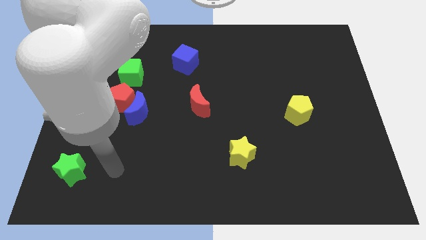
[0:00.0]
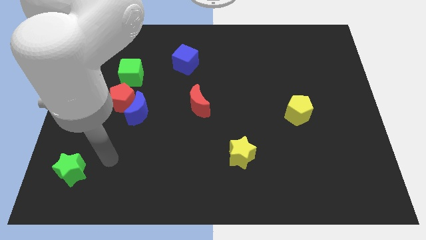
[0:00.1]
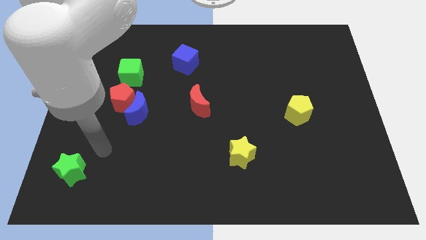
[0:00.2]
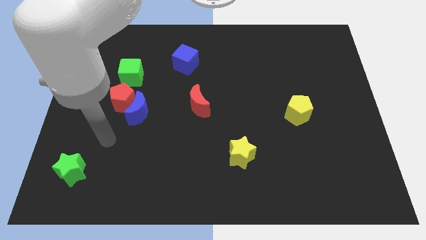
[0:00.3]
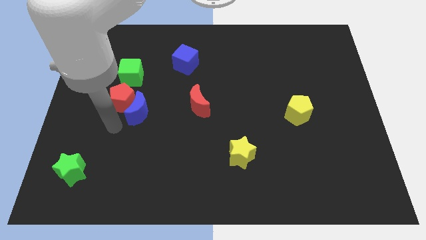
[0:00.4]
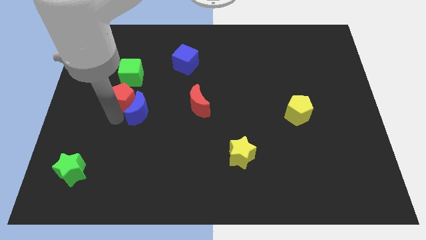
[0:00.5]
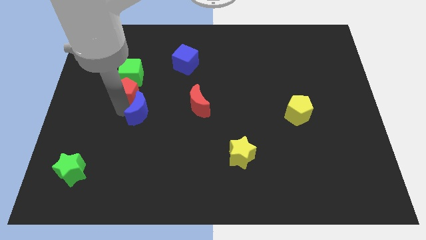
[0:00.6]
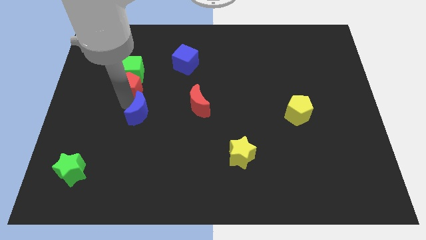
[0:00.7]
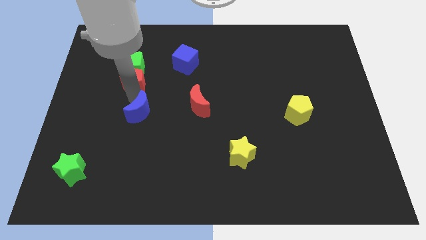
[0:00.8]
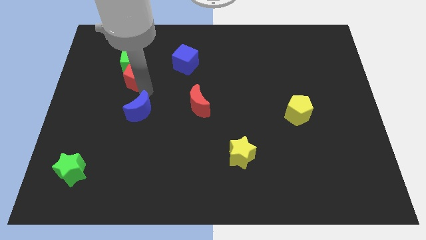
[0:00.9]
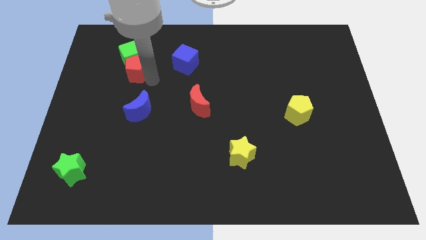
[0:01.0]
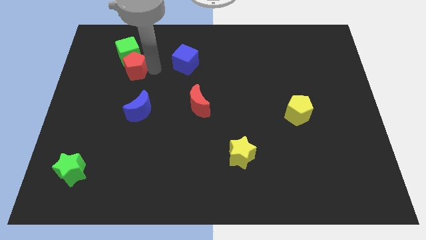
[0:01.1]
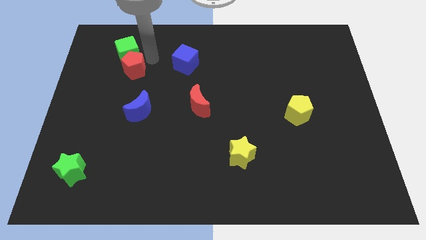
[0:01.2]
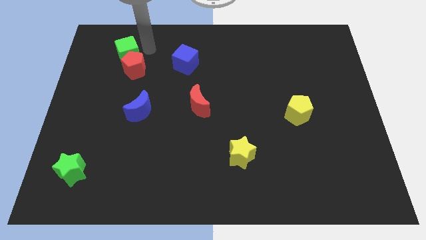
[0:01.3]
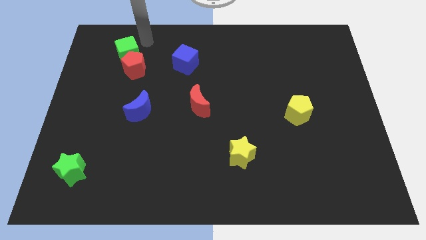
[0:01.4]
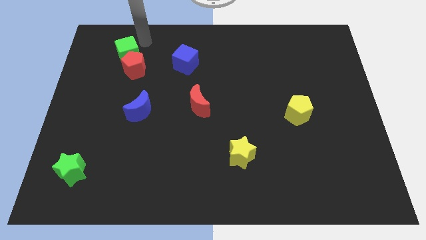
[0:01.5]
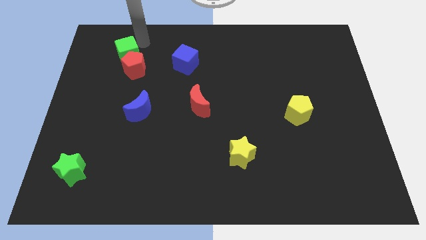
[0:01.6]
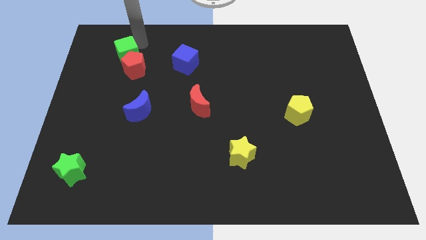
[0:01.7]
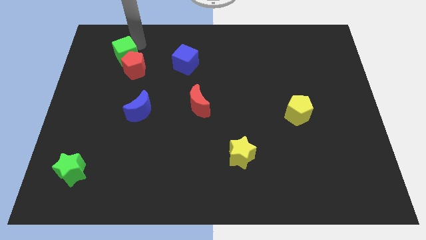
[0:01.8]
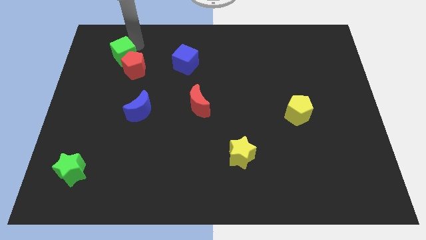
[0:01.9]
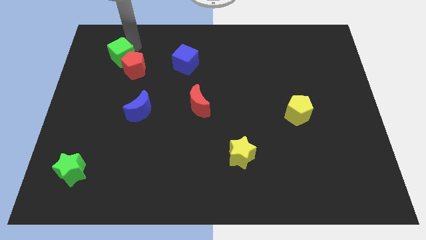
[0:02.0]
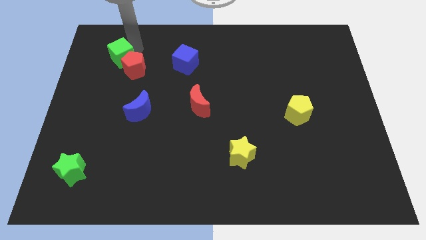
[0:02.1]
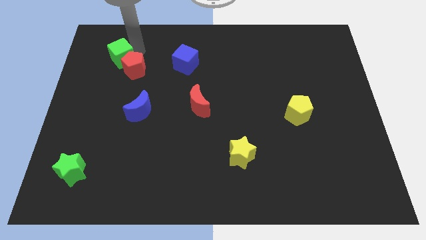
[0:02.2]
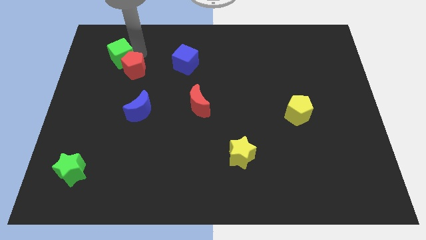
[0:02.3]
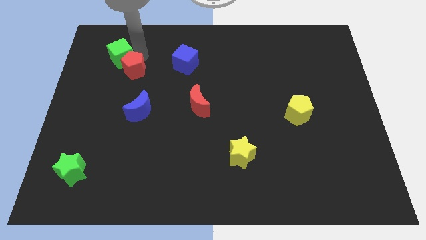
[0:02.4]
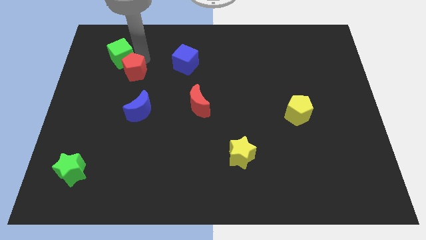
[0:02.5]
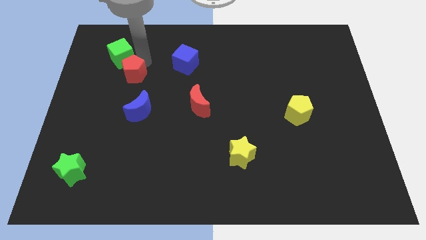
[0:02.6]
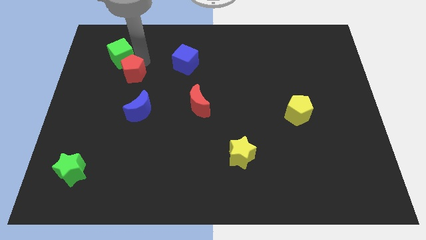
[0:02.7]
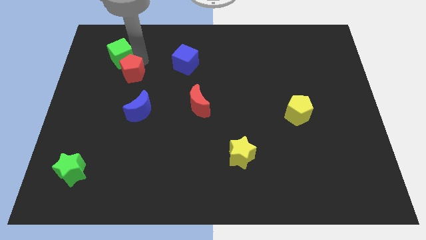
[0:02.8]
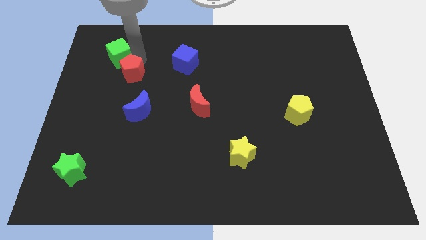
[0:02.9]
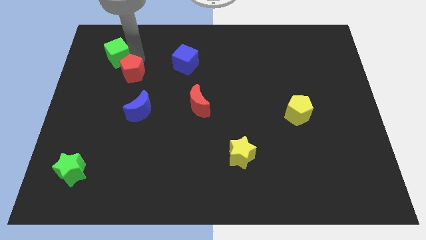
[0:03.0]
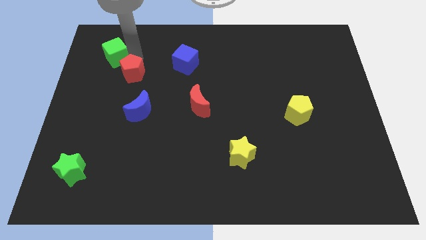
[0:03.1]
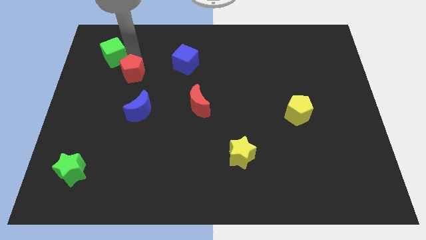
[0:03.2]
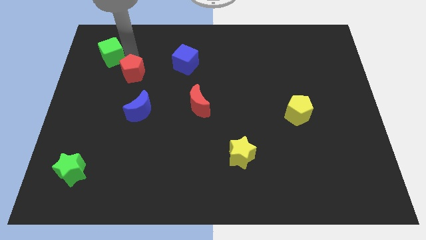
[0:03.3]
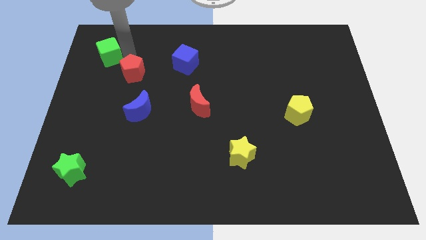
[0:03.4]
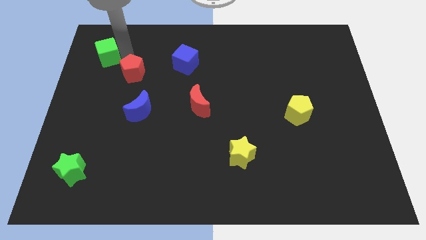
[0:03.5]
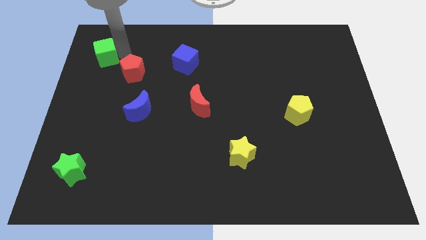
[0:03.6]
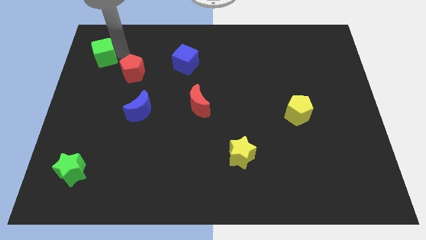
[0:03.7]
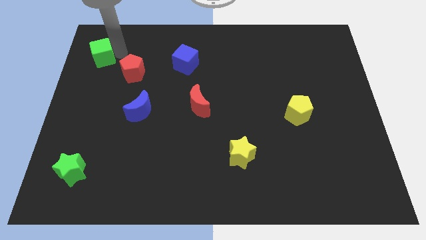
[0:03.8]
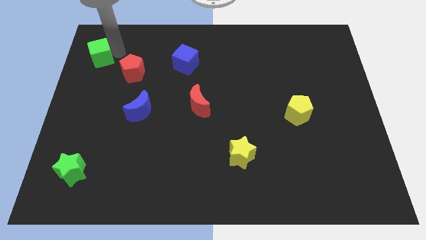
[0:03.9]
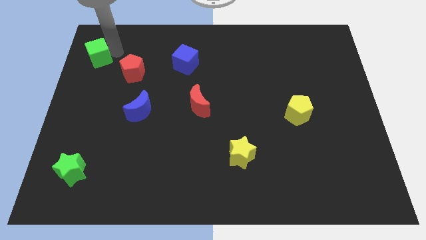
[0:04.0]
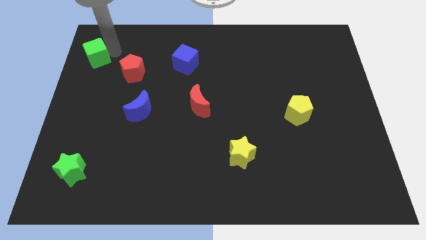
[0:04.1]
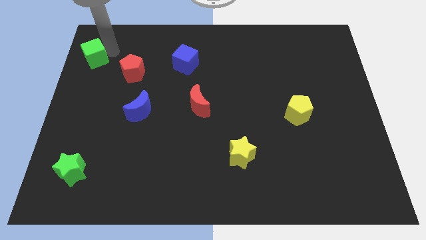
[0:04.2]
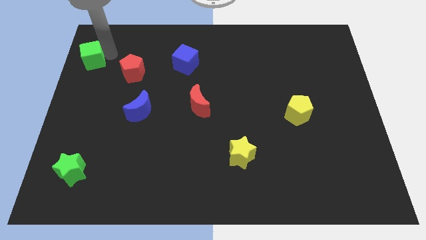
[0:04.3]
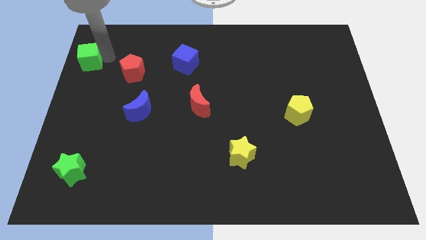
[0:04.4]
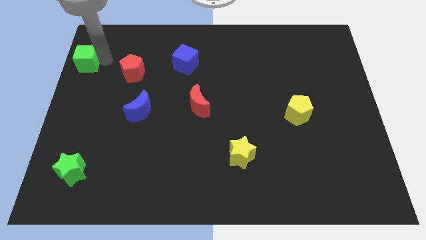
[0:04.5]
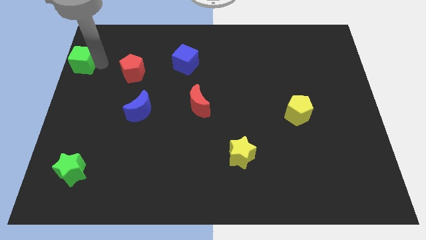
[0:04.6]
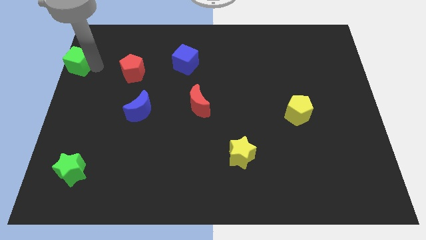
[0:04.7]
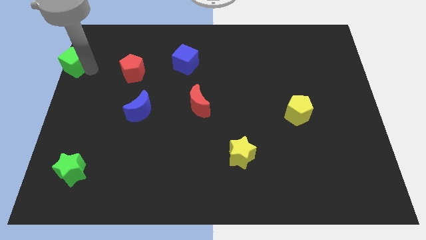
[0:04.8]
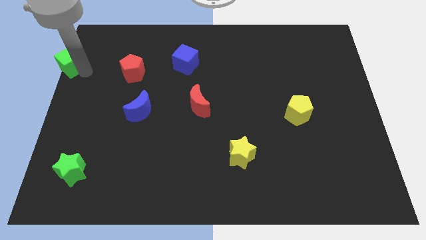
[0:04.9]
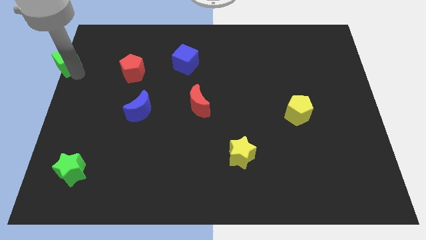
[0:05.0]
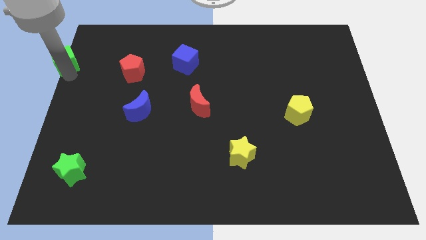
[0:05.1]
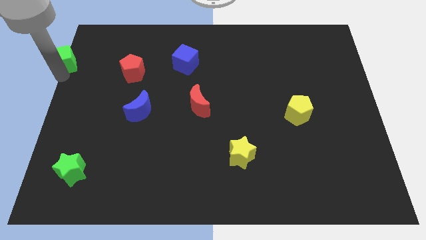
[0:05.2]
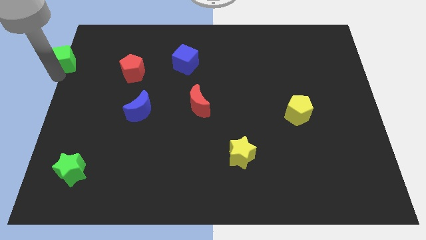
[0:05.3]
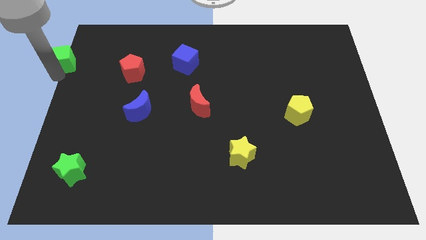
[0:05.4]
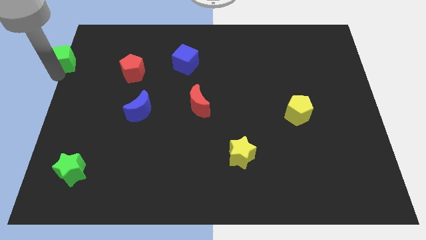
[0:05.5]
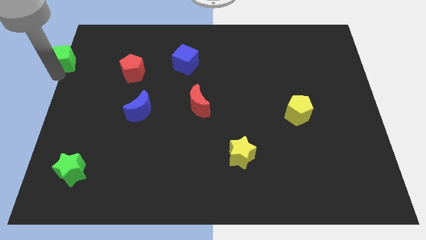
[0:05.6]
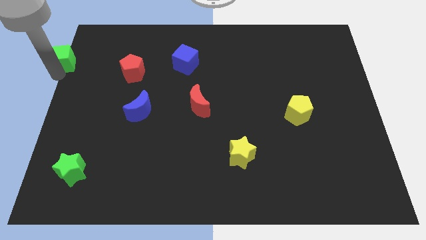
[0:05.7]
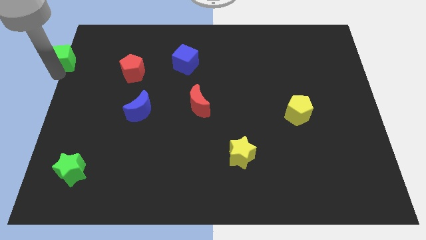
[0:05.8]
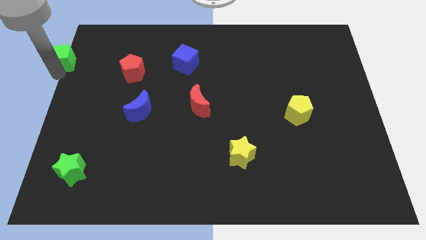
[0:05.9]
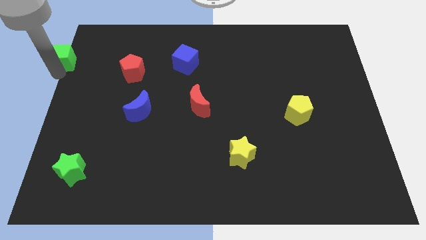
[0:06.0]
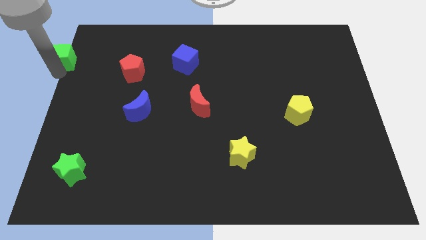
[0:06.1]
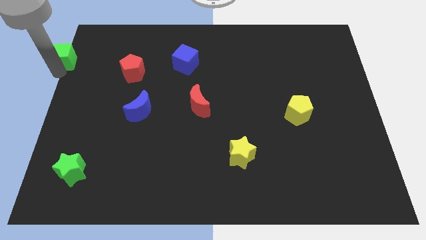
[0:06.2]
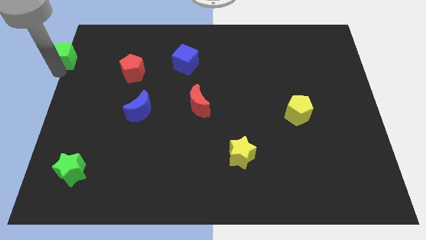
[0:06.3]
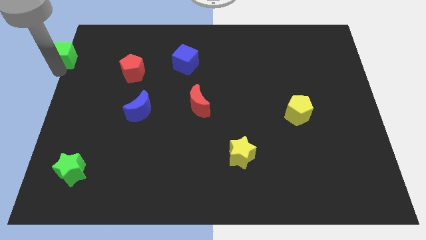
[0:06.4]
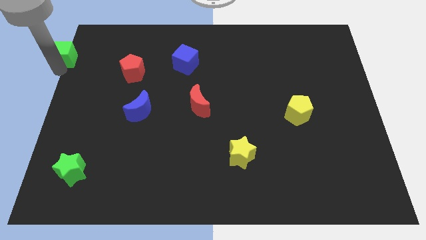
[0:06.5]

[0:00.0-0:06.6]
put the green cube to the top left of the board
